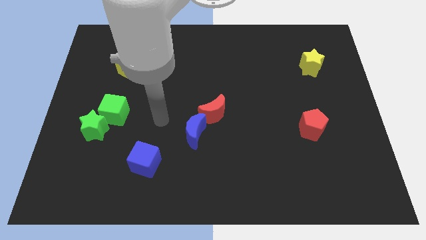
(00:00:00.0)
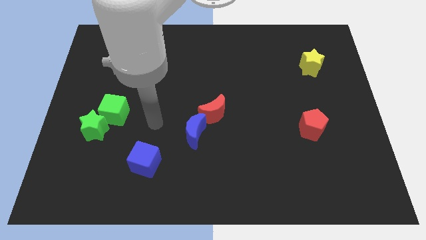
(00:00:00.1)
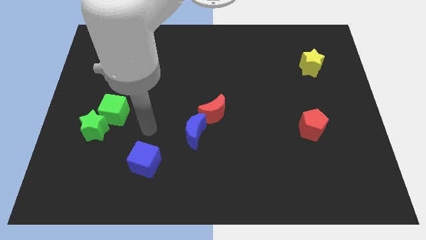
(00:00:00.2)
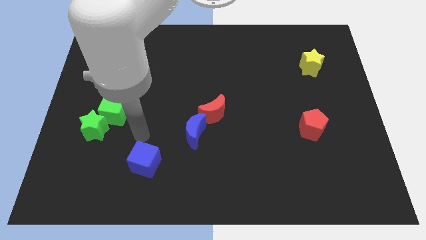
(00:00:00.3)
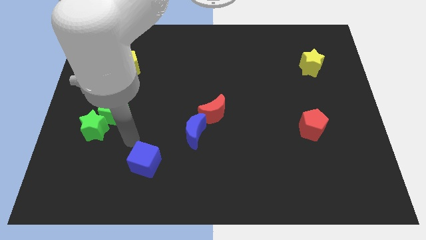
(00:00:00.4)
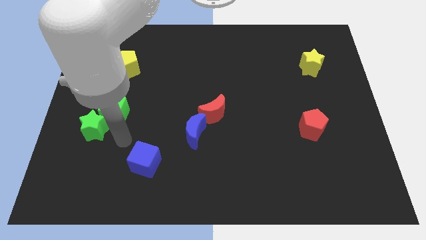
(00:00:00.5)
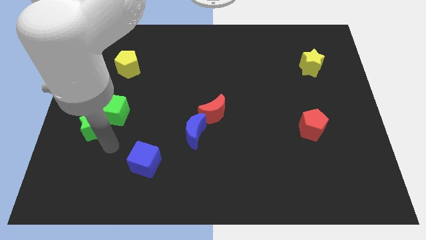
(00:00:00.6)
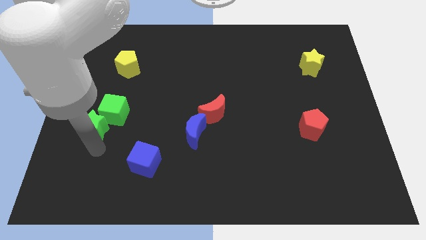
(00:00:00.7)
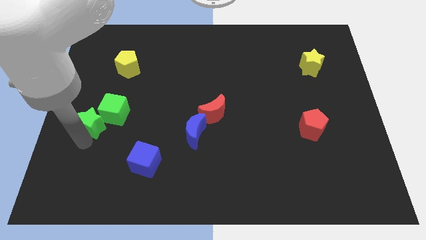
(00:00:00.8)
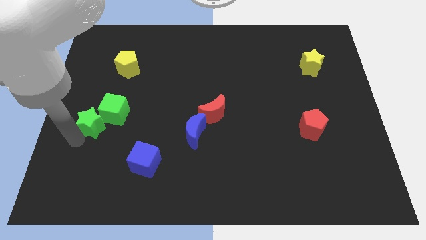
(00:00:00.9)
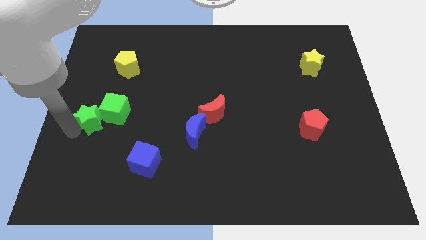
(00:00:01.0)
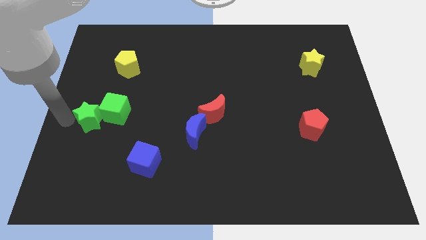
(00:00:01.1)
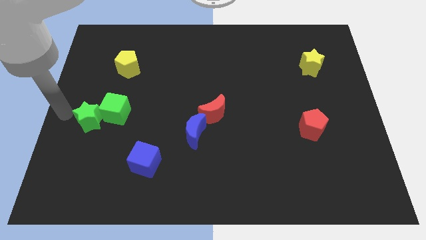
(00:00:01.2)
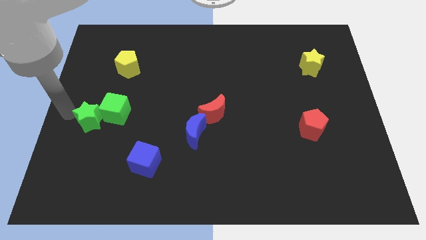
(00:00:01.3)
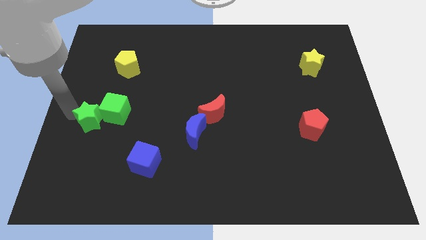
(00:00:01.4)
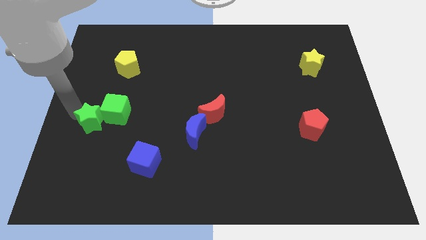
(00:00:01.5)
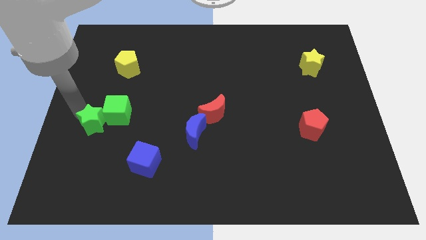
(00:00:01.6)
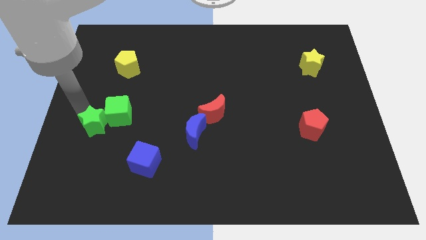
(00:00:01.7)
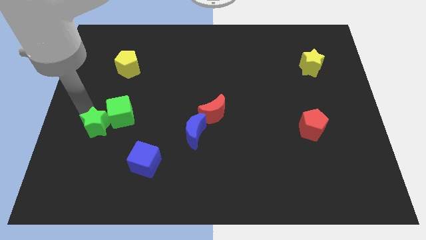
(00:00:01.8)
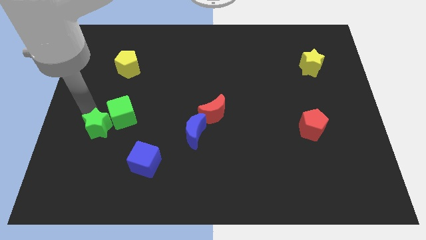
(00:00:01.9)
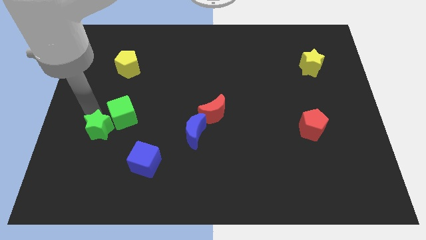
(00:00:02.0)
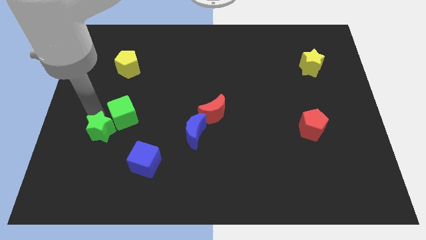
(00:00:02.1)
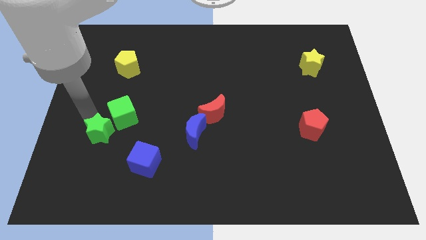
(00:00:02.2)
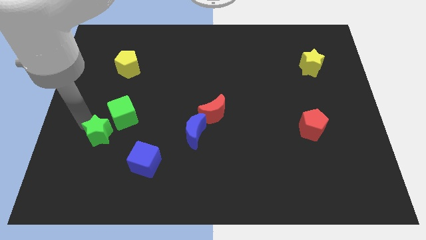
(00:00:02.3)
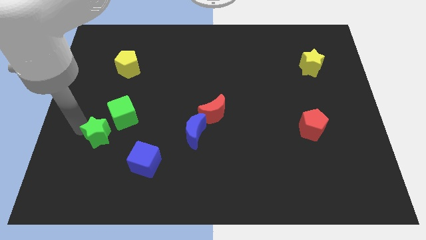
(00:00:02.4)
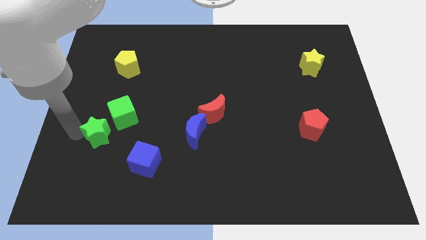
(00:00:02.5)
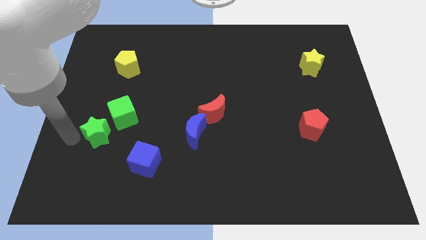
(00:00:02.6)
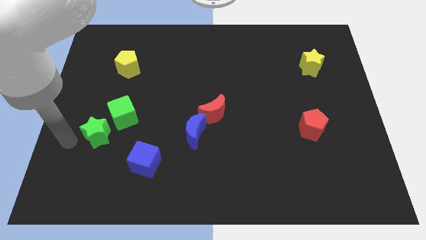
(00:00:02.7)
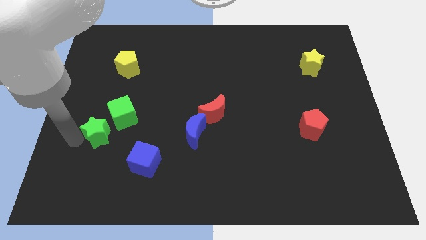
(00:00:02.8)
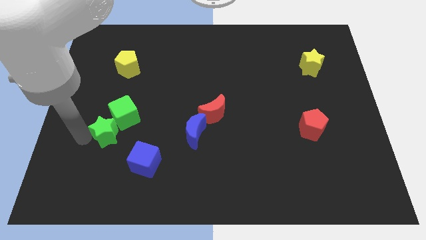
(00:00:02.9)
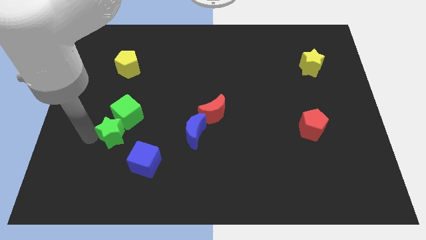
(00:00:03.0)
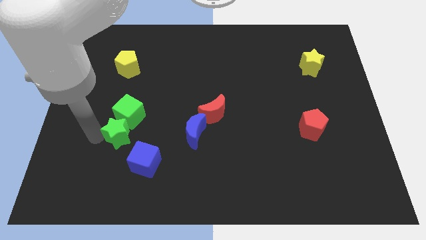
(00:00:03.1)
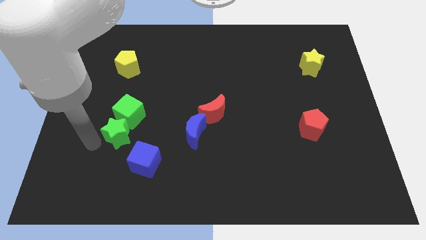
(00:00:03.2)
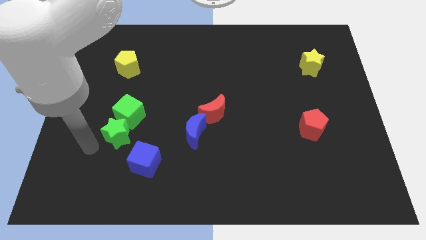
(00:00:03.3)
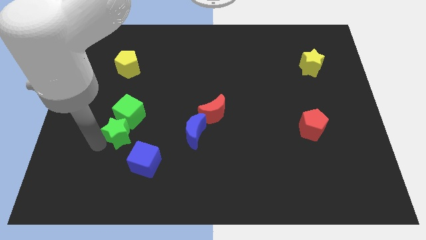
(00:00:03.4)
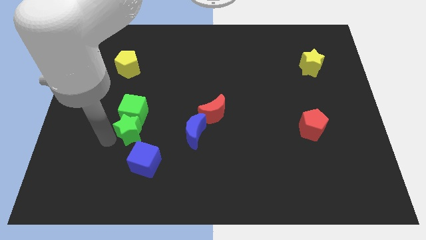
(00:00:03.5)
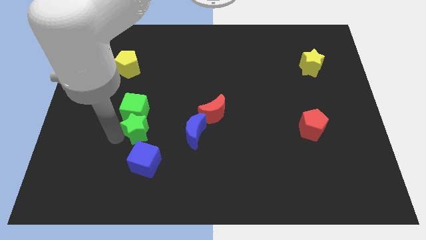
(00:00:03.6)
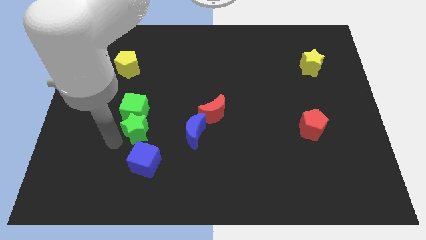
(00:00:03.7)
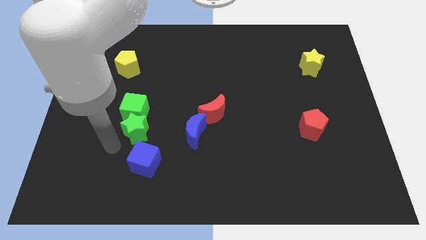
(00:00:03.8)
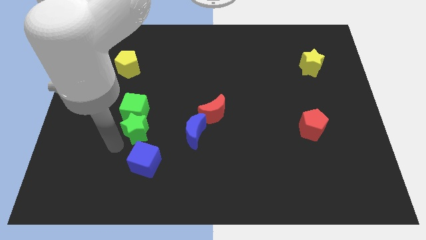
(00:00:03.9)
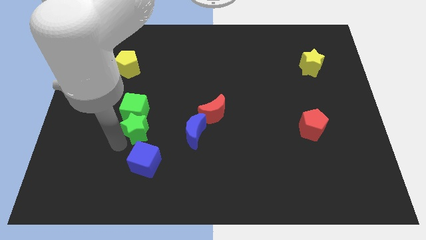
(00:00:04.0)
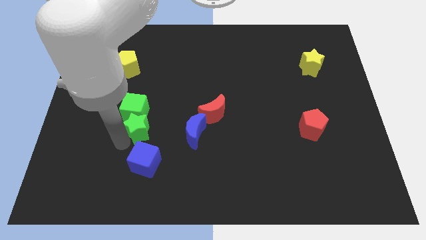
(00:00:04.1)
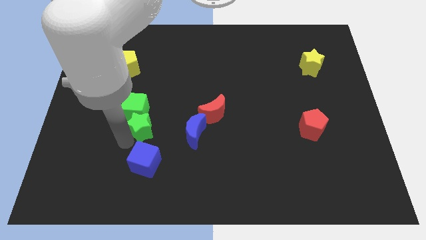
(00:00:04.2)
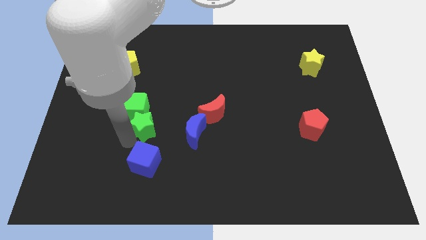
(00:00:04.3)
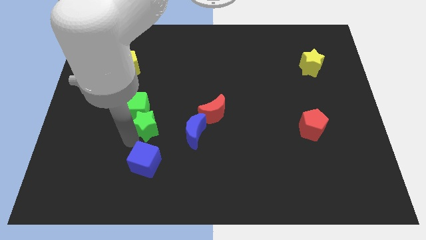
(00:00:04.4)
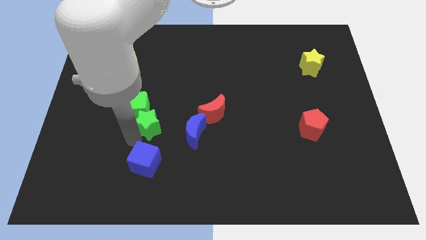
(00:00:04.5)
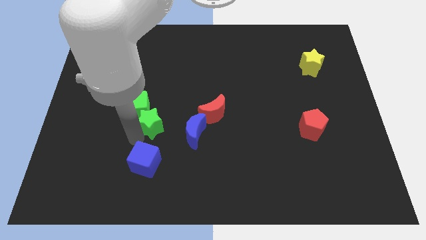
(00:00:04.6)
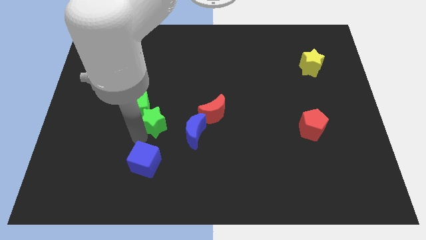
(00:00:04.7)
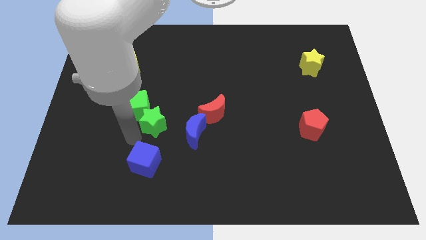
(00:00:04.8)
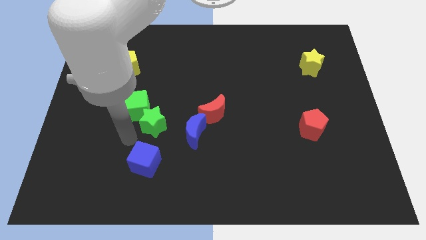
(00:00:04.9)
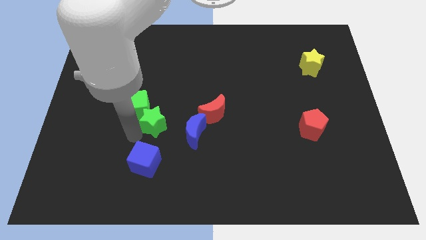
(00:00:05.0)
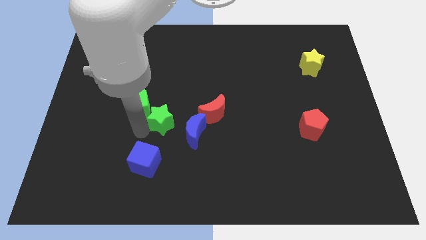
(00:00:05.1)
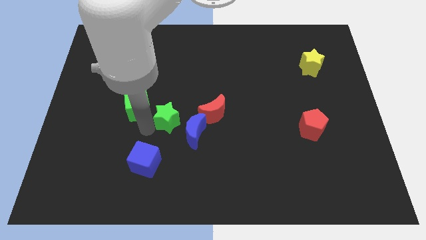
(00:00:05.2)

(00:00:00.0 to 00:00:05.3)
move the green star to the middle

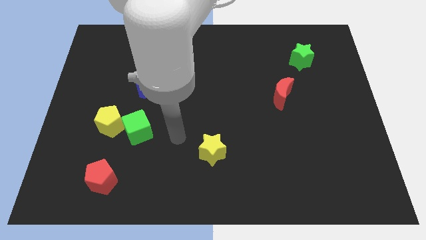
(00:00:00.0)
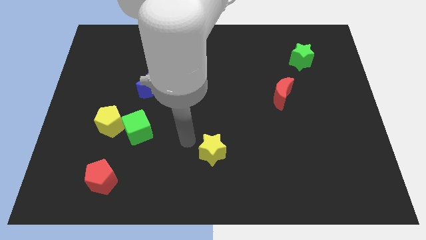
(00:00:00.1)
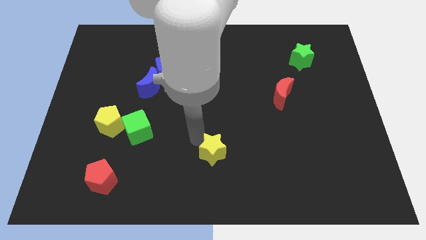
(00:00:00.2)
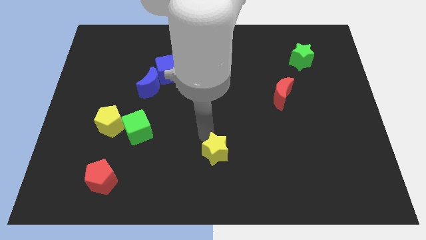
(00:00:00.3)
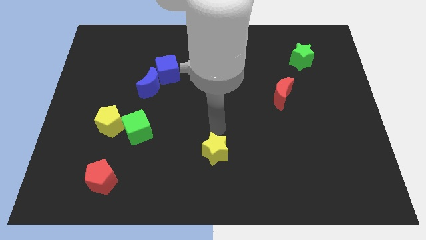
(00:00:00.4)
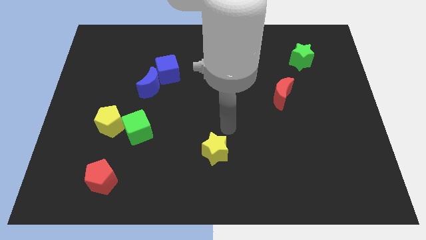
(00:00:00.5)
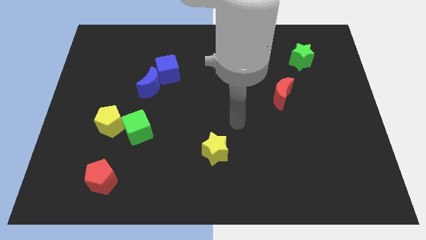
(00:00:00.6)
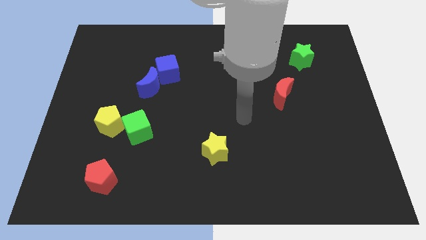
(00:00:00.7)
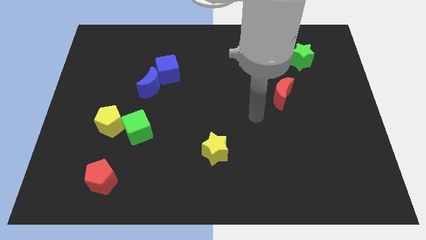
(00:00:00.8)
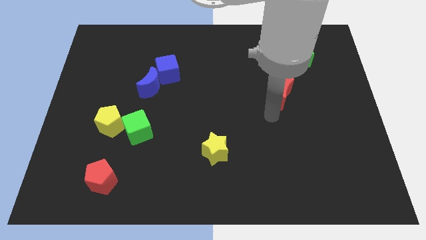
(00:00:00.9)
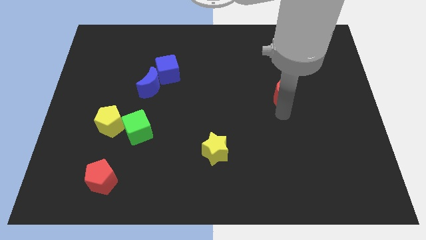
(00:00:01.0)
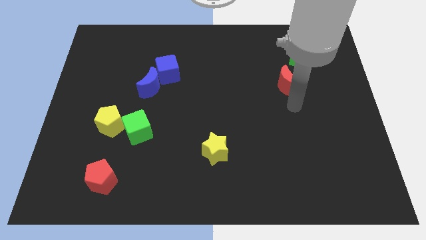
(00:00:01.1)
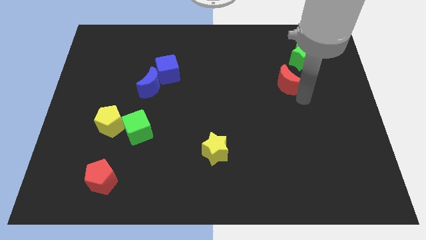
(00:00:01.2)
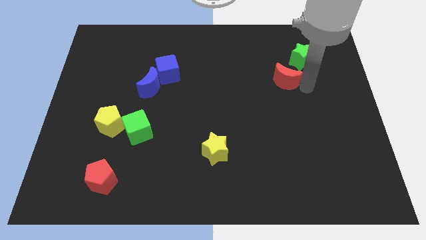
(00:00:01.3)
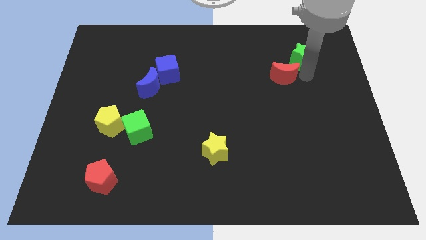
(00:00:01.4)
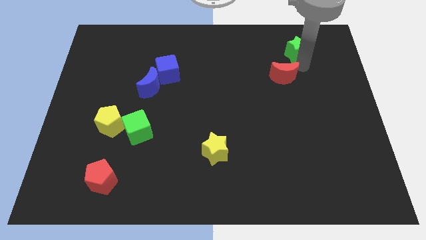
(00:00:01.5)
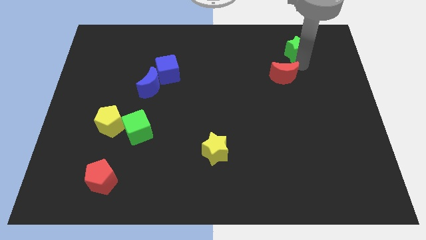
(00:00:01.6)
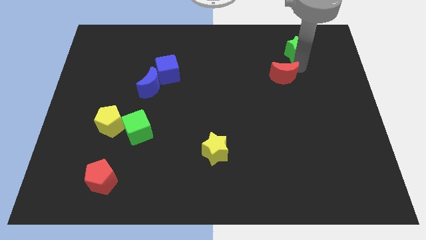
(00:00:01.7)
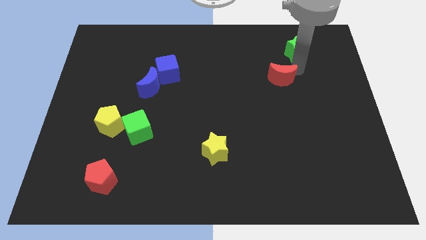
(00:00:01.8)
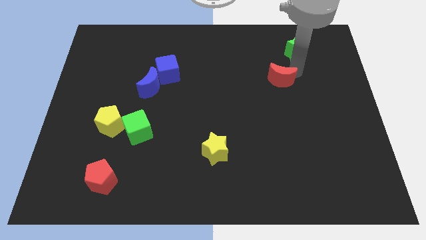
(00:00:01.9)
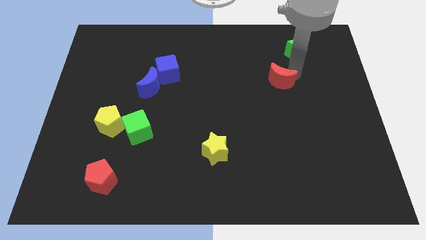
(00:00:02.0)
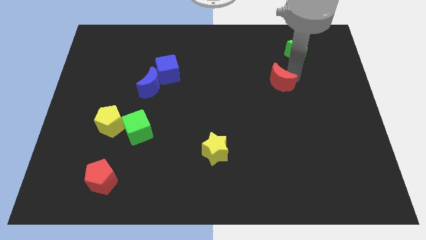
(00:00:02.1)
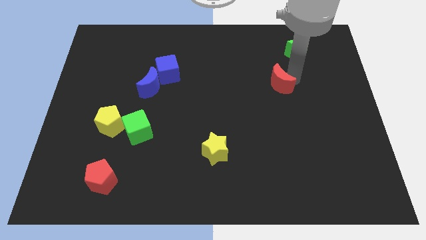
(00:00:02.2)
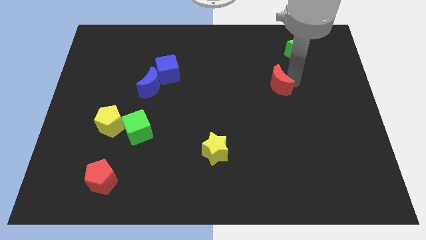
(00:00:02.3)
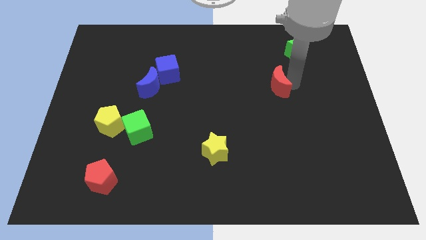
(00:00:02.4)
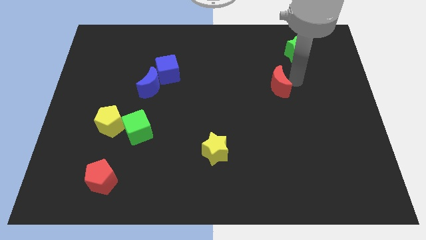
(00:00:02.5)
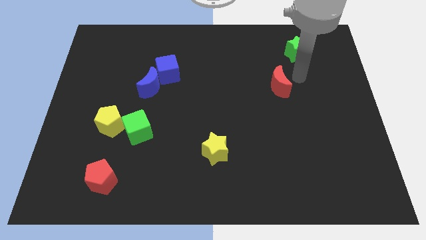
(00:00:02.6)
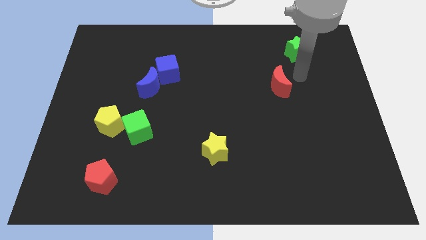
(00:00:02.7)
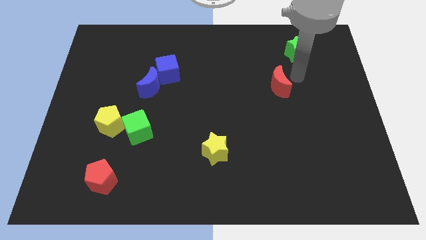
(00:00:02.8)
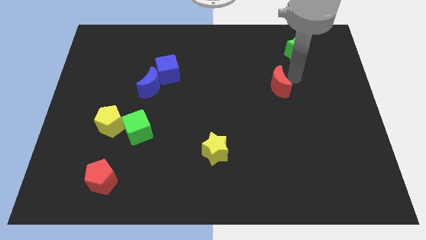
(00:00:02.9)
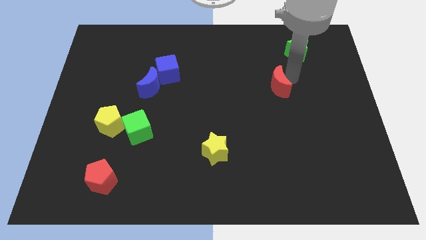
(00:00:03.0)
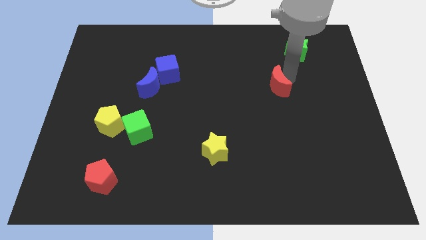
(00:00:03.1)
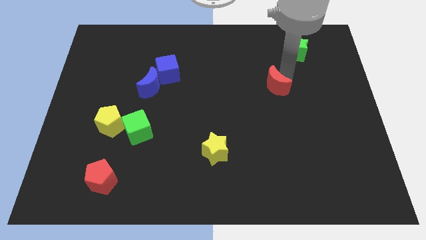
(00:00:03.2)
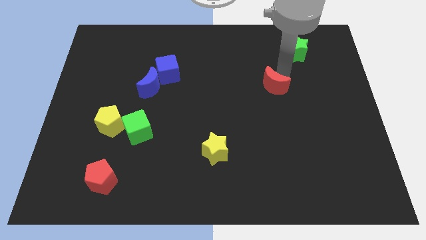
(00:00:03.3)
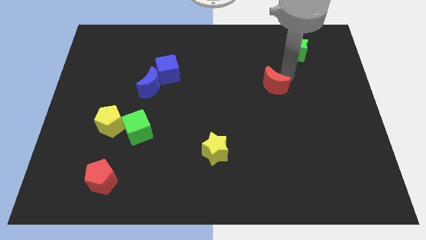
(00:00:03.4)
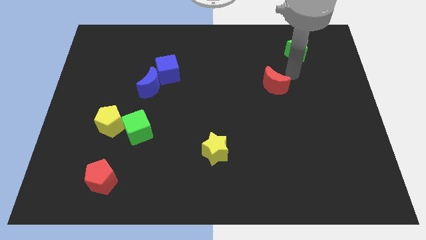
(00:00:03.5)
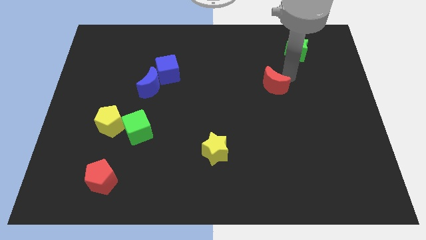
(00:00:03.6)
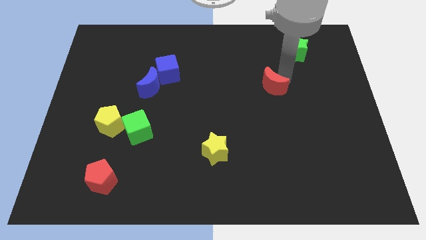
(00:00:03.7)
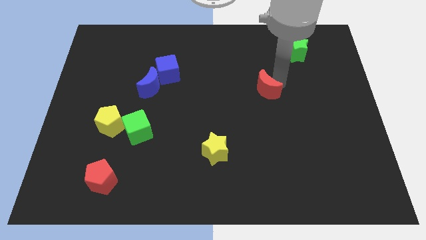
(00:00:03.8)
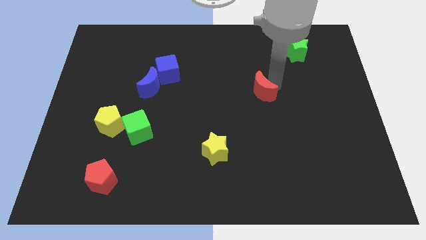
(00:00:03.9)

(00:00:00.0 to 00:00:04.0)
put the red moon to the middle
